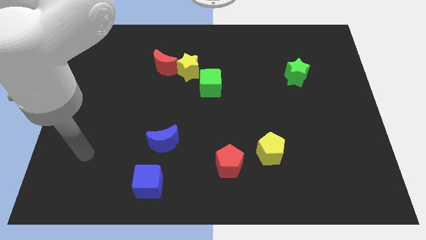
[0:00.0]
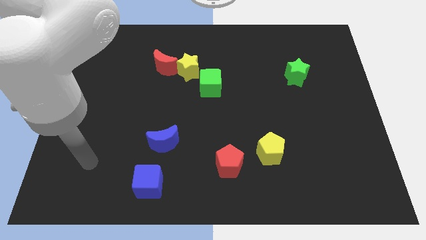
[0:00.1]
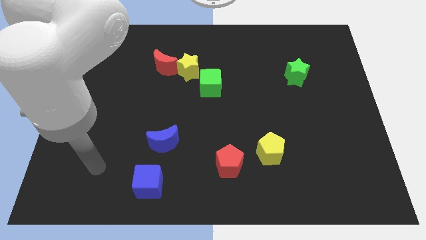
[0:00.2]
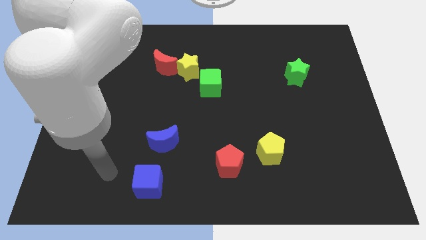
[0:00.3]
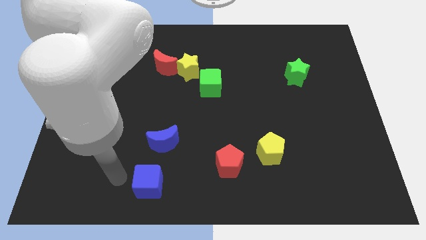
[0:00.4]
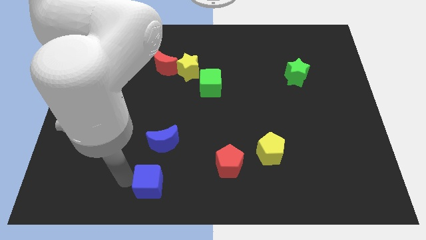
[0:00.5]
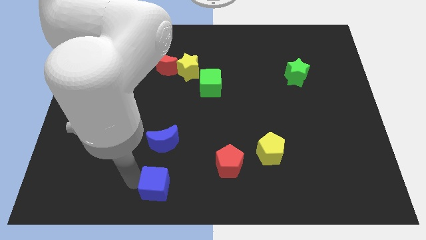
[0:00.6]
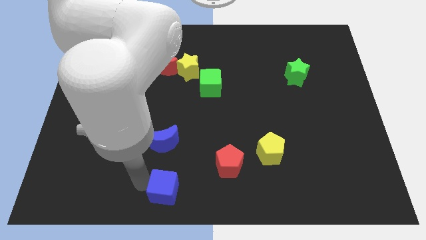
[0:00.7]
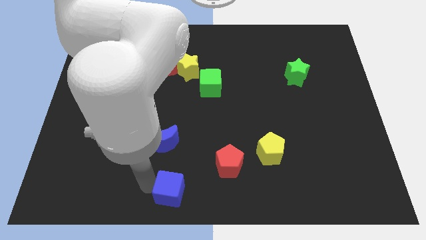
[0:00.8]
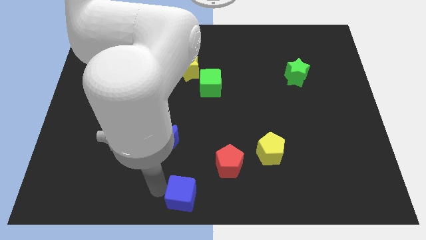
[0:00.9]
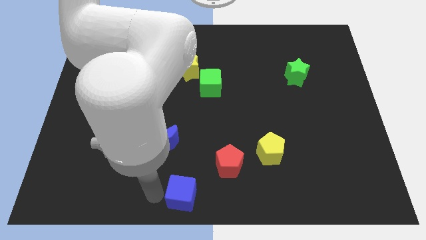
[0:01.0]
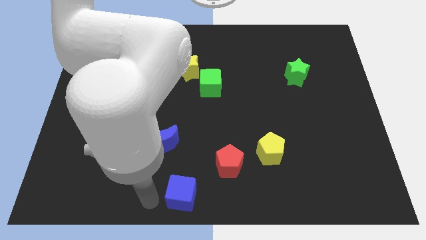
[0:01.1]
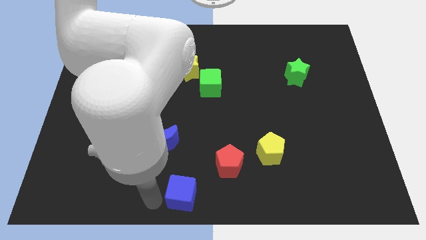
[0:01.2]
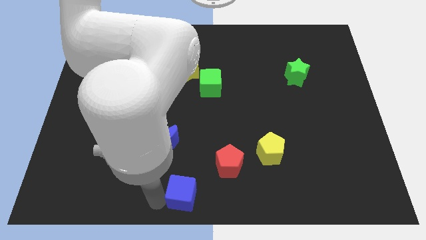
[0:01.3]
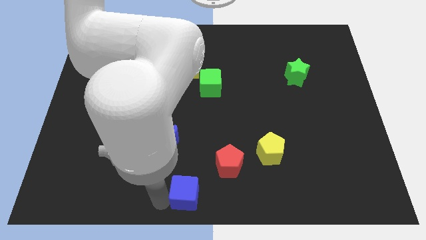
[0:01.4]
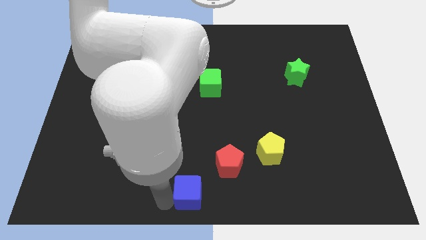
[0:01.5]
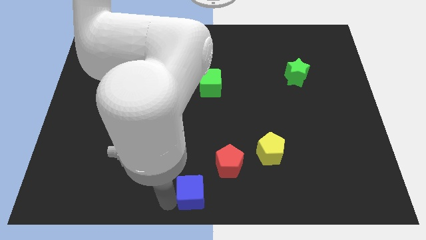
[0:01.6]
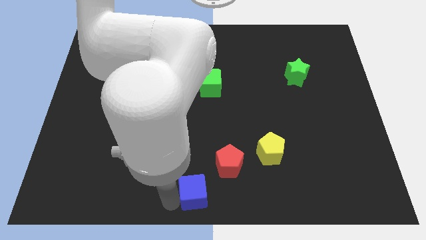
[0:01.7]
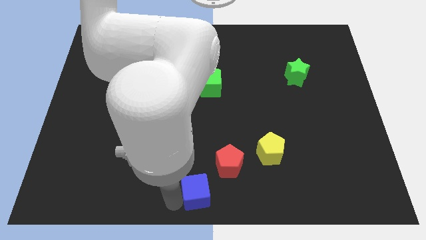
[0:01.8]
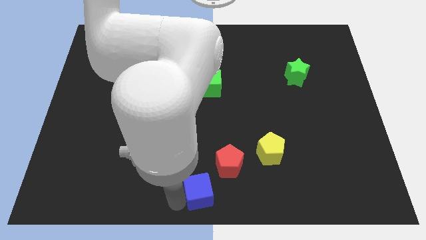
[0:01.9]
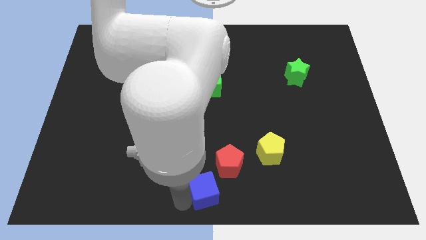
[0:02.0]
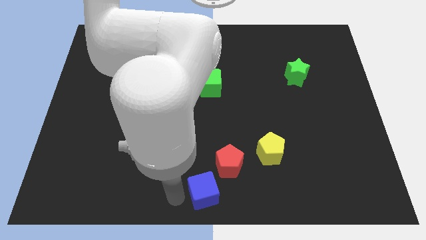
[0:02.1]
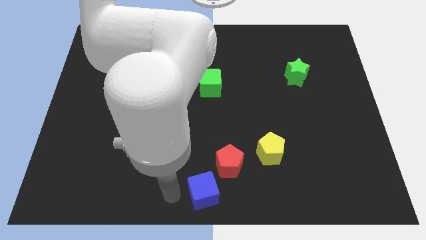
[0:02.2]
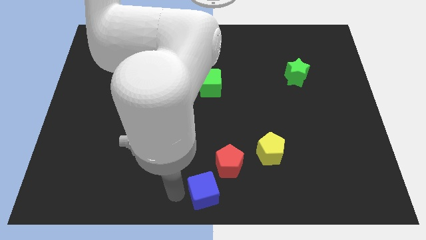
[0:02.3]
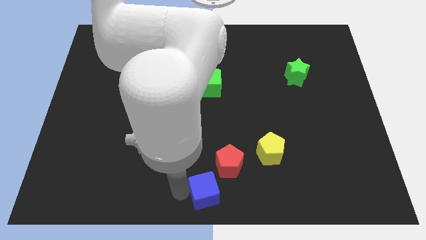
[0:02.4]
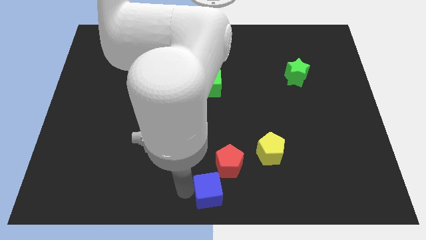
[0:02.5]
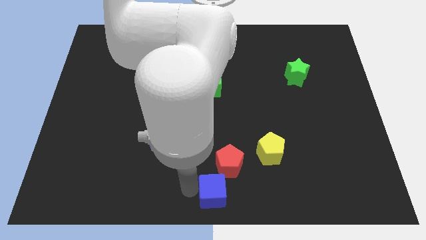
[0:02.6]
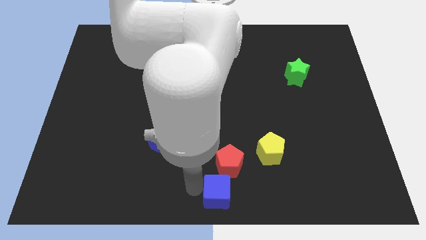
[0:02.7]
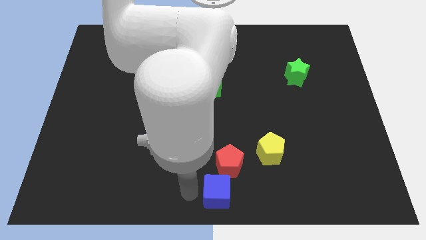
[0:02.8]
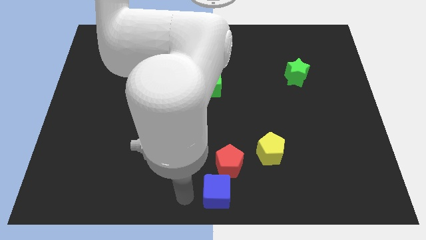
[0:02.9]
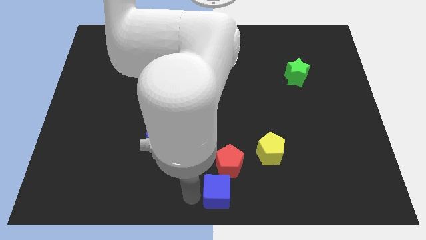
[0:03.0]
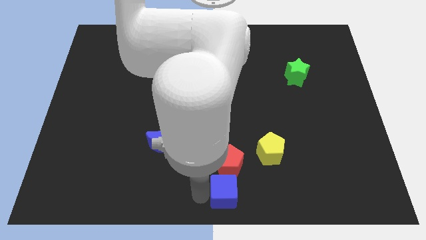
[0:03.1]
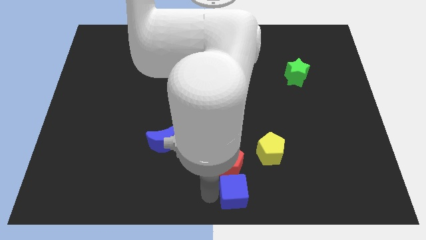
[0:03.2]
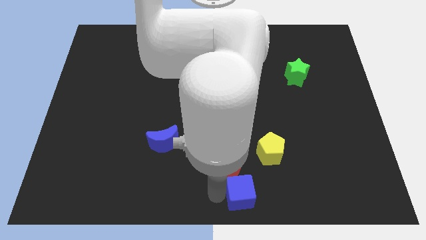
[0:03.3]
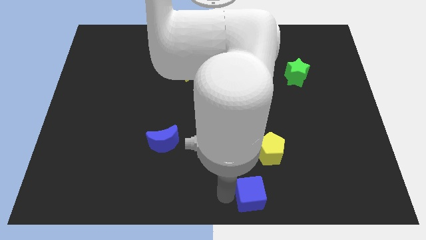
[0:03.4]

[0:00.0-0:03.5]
slide the blue cube right

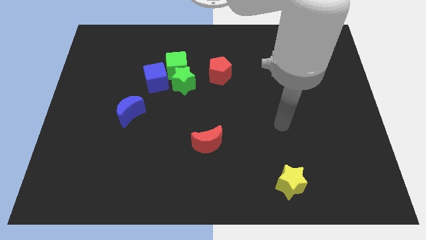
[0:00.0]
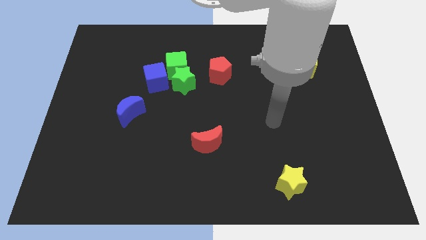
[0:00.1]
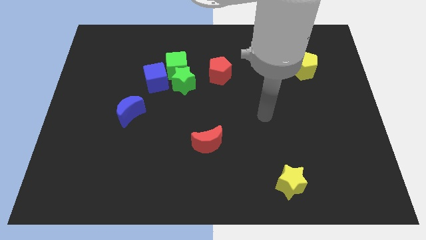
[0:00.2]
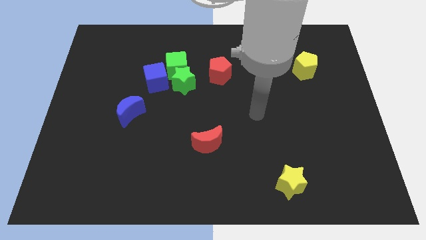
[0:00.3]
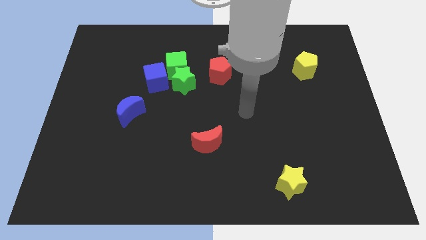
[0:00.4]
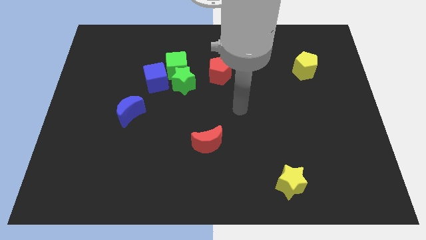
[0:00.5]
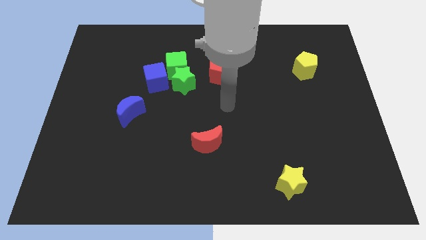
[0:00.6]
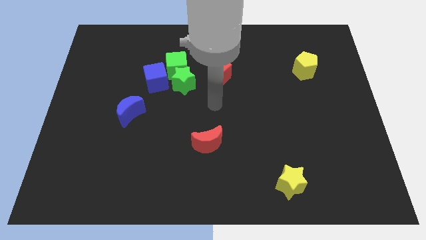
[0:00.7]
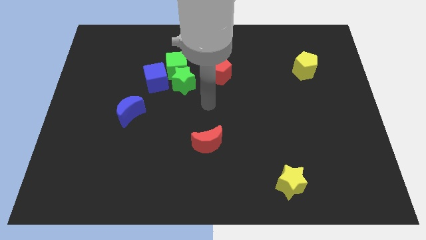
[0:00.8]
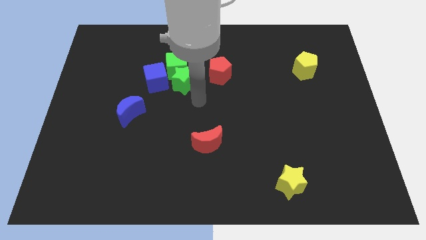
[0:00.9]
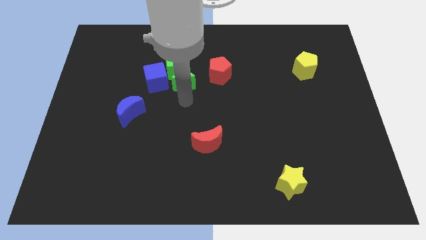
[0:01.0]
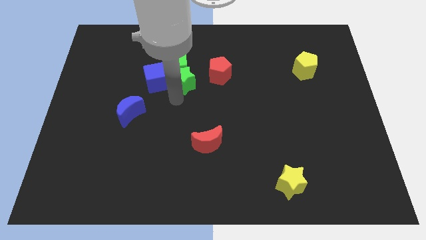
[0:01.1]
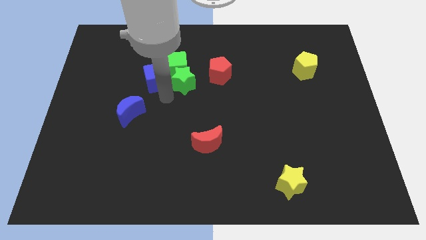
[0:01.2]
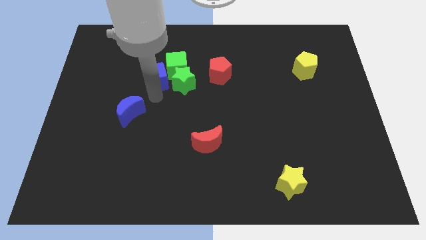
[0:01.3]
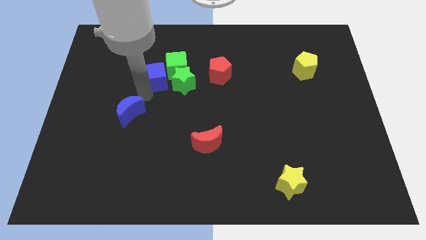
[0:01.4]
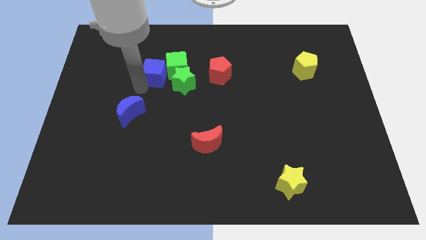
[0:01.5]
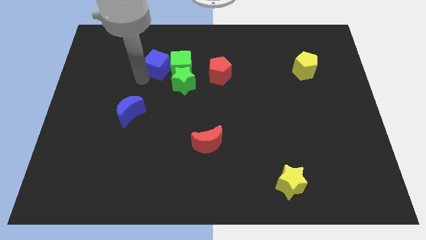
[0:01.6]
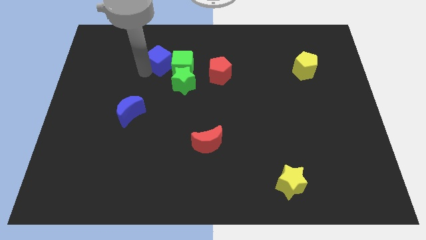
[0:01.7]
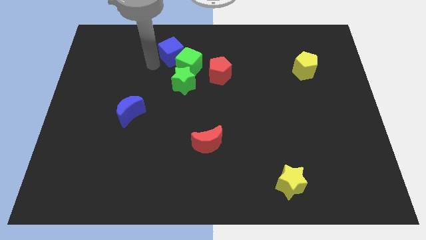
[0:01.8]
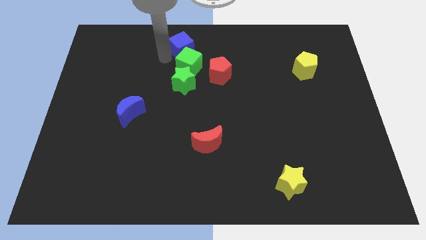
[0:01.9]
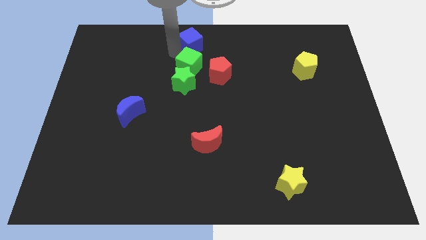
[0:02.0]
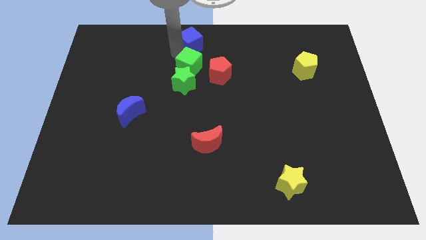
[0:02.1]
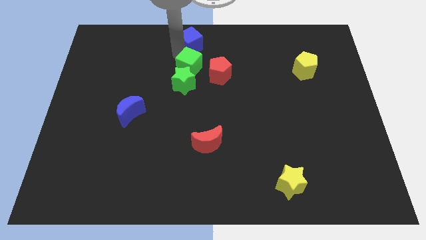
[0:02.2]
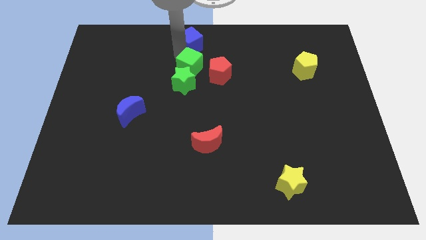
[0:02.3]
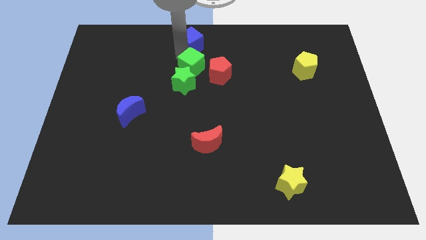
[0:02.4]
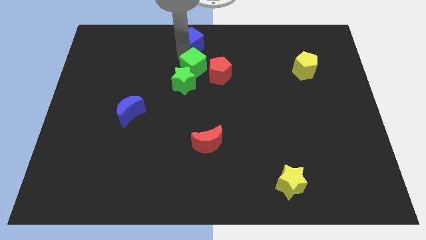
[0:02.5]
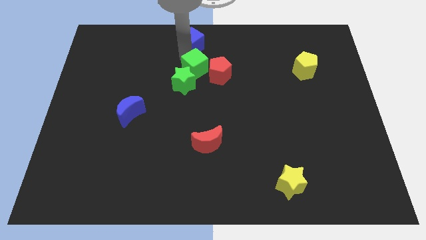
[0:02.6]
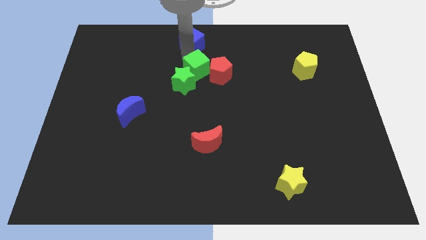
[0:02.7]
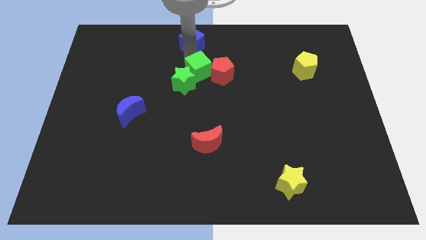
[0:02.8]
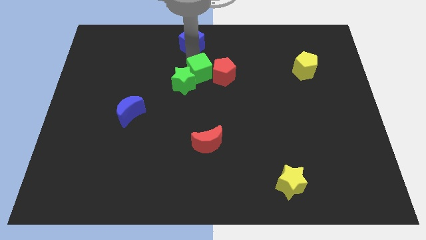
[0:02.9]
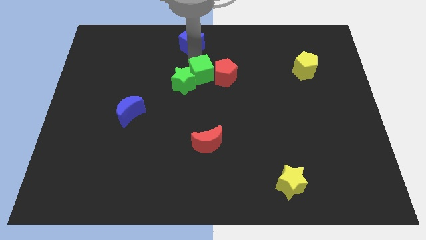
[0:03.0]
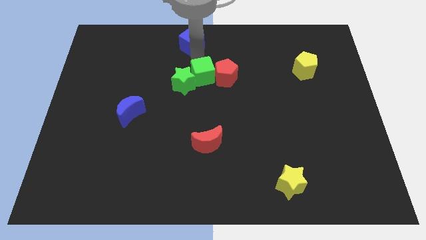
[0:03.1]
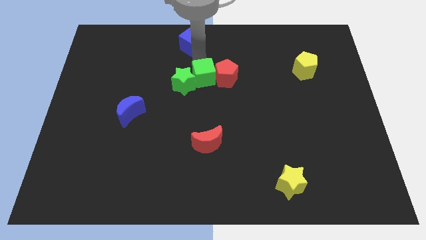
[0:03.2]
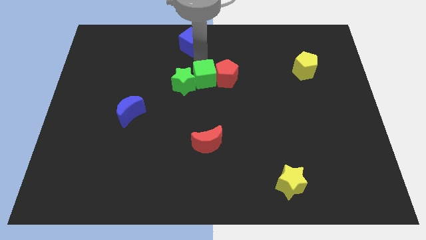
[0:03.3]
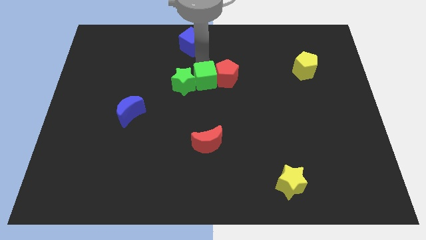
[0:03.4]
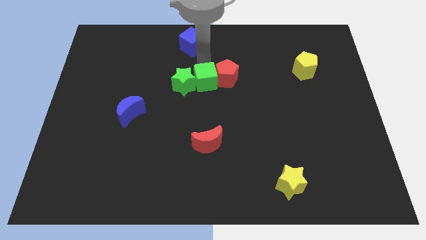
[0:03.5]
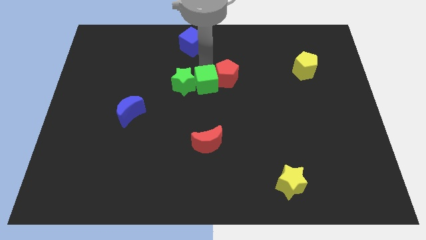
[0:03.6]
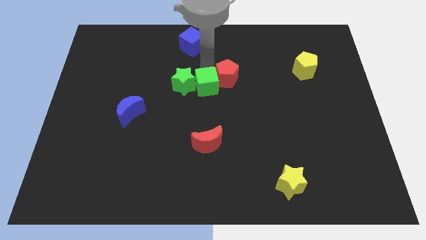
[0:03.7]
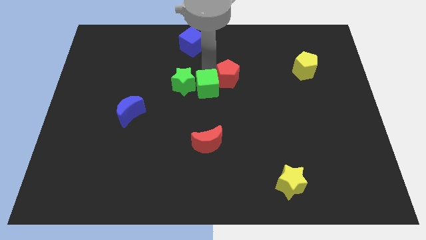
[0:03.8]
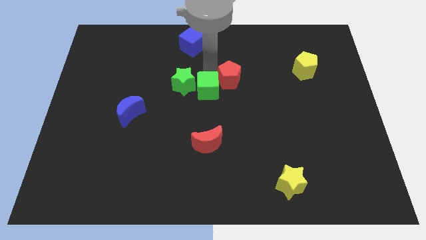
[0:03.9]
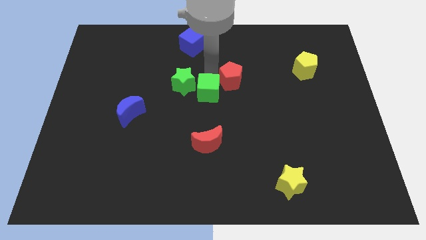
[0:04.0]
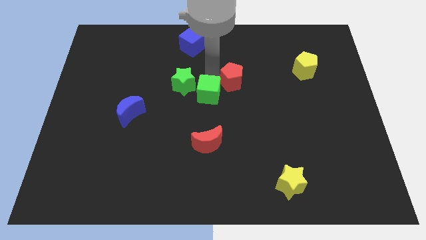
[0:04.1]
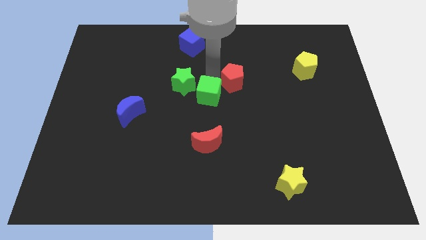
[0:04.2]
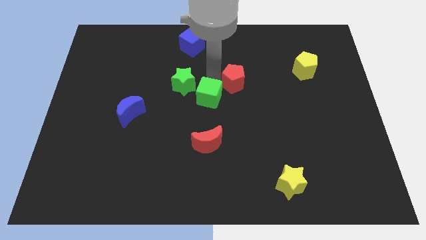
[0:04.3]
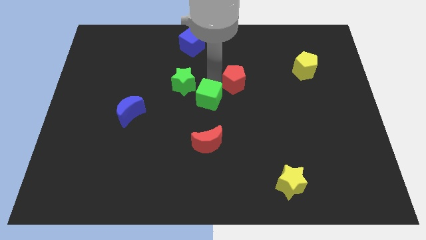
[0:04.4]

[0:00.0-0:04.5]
slightly move the green cube downwards
